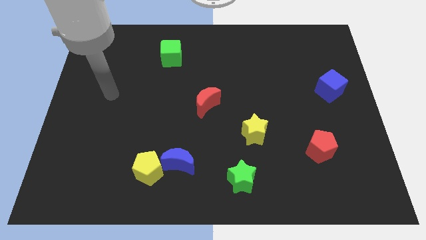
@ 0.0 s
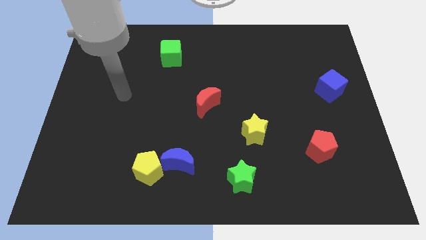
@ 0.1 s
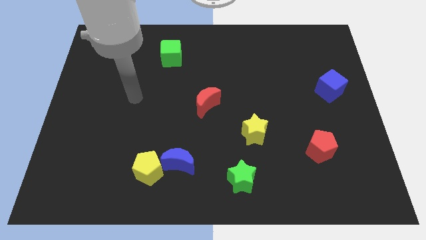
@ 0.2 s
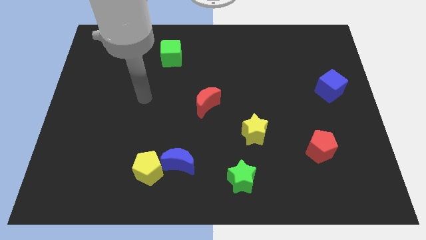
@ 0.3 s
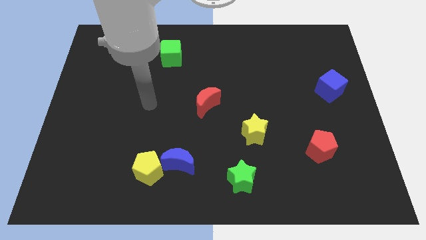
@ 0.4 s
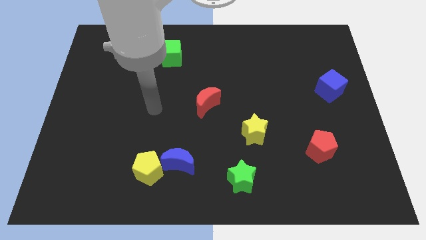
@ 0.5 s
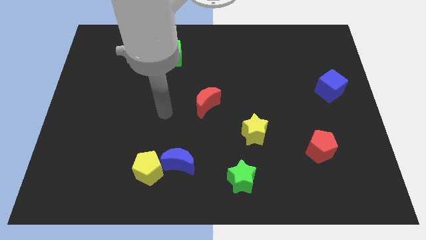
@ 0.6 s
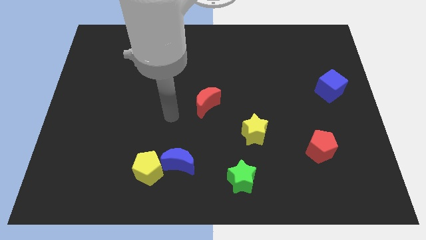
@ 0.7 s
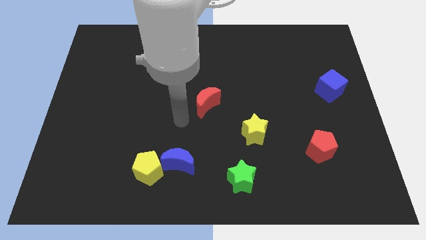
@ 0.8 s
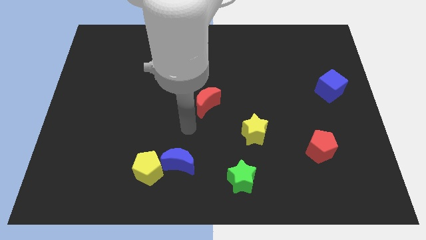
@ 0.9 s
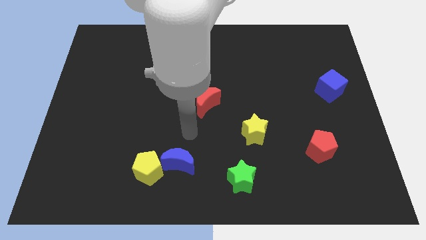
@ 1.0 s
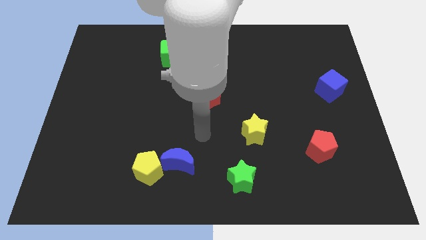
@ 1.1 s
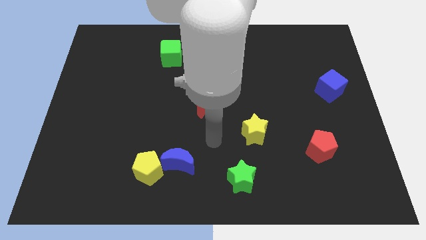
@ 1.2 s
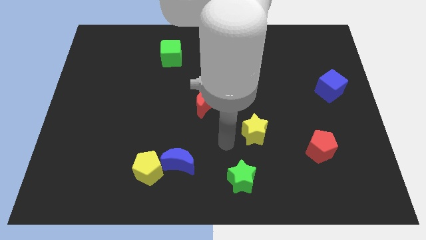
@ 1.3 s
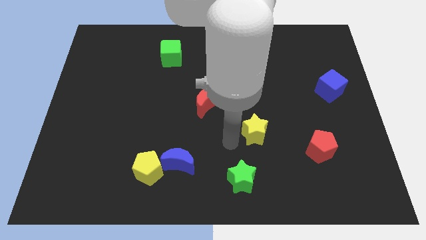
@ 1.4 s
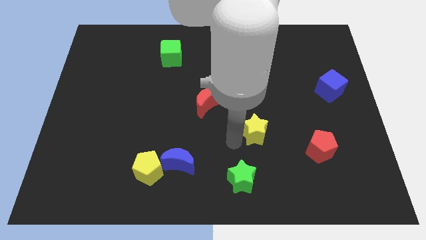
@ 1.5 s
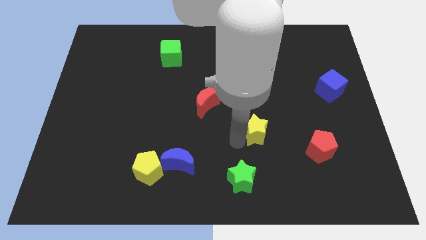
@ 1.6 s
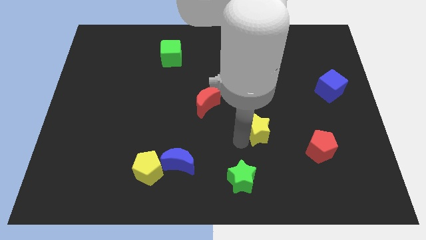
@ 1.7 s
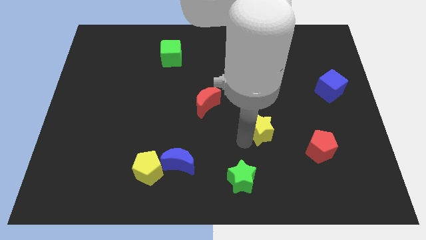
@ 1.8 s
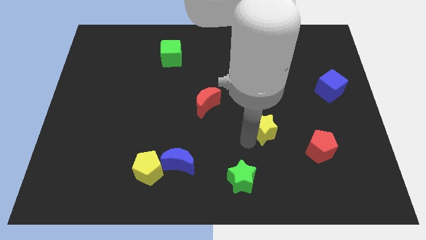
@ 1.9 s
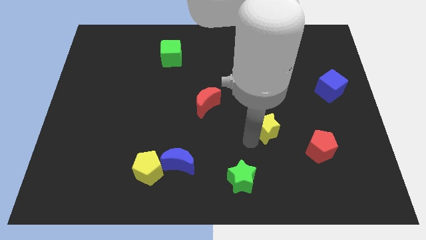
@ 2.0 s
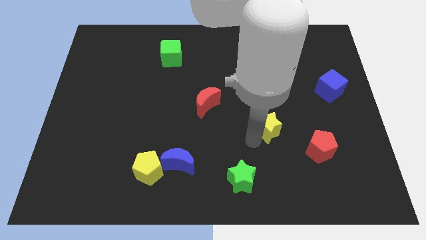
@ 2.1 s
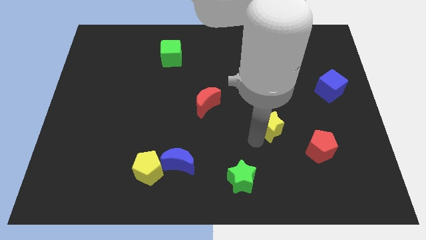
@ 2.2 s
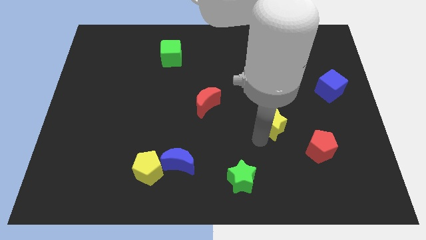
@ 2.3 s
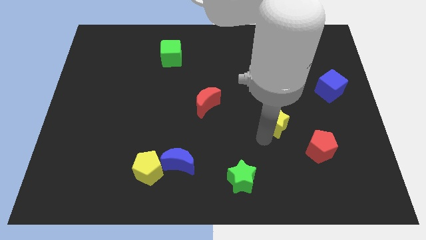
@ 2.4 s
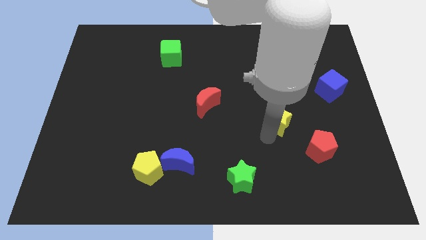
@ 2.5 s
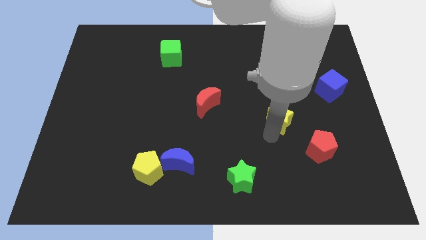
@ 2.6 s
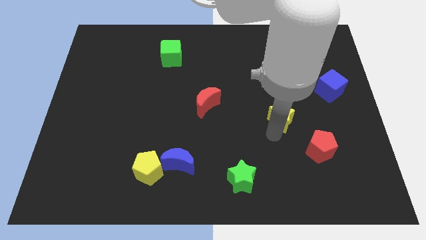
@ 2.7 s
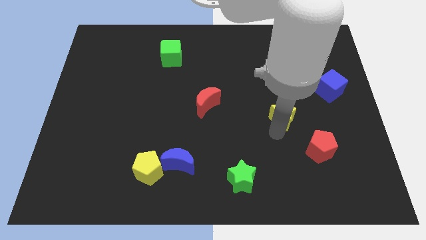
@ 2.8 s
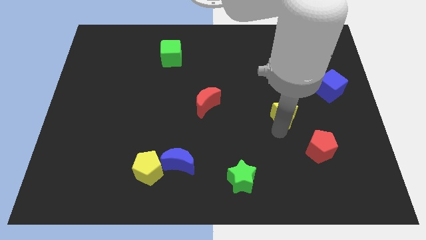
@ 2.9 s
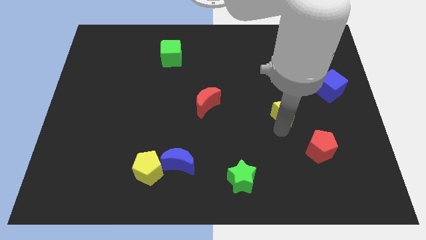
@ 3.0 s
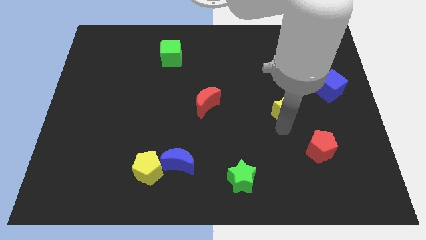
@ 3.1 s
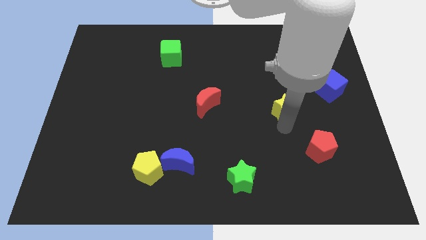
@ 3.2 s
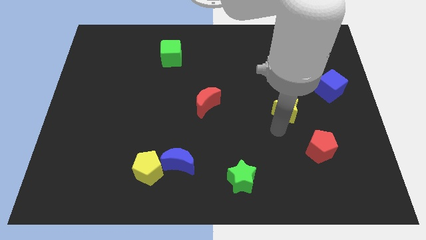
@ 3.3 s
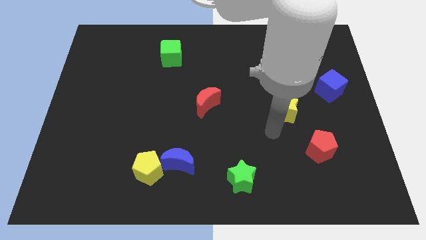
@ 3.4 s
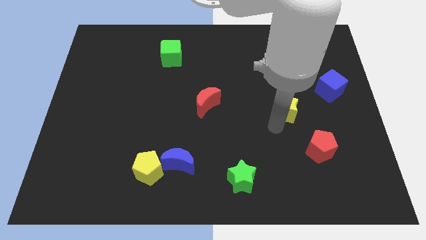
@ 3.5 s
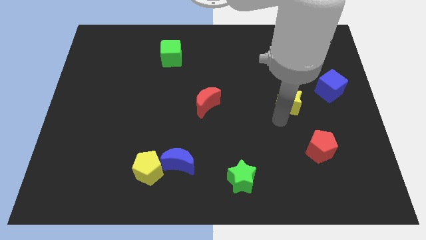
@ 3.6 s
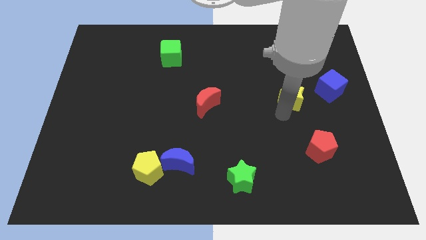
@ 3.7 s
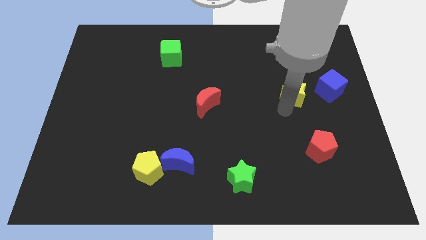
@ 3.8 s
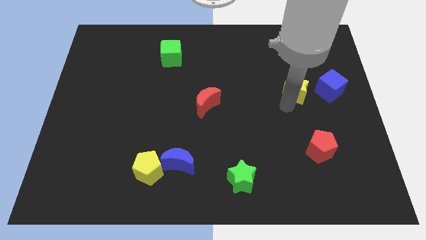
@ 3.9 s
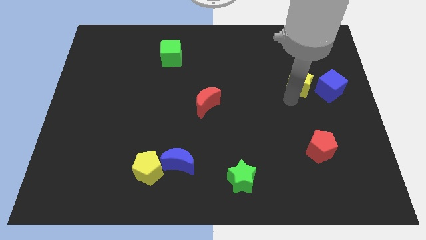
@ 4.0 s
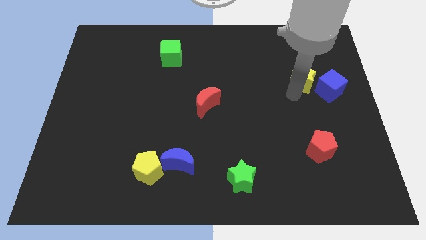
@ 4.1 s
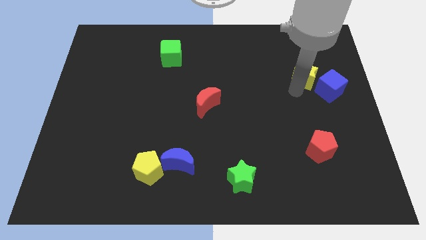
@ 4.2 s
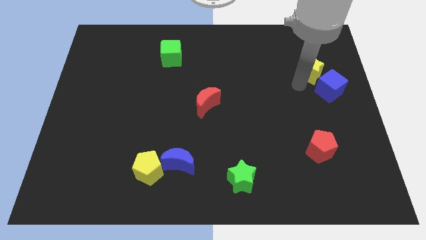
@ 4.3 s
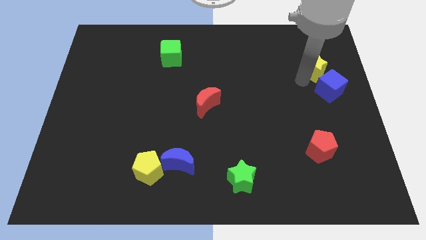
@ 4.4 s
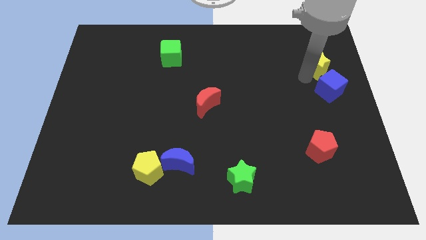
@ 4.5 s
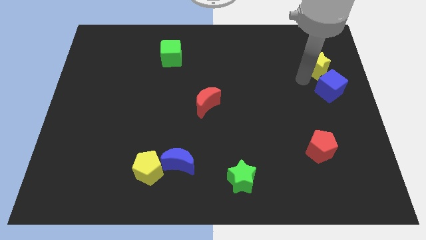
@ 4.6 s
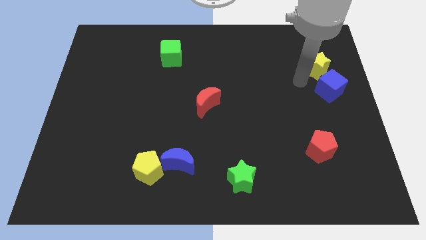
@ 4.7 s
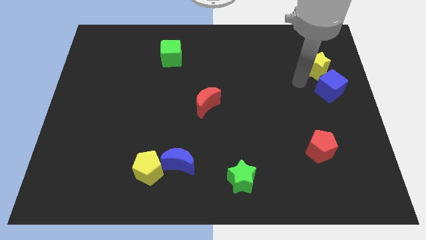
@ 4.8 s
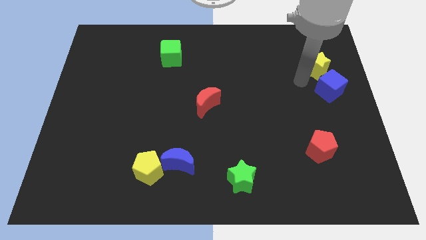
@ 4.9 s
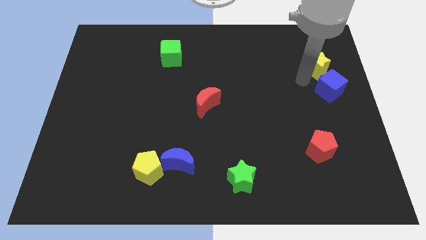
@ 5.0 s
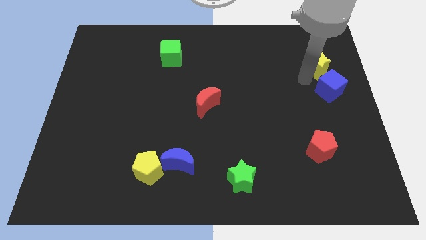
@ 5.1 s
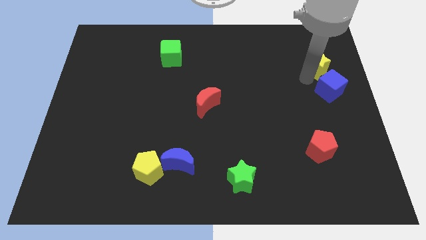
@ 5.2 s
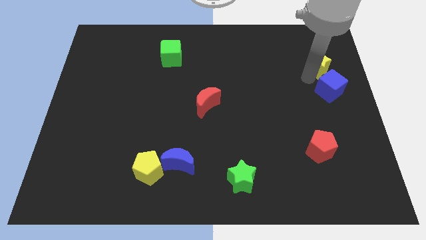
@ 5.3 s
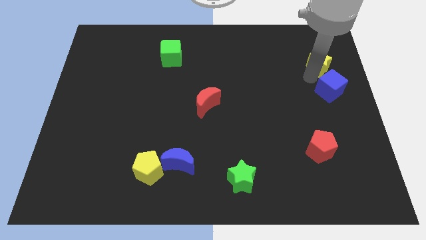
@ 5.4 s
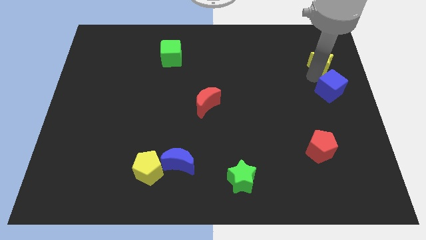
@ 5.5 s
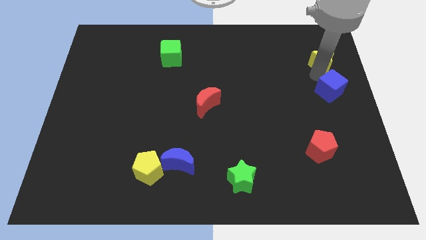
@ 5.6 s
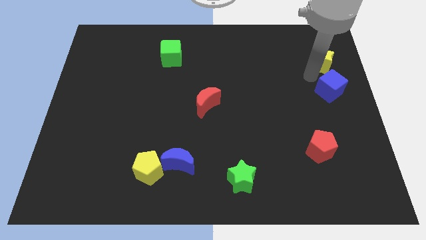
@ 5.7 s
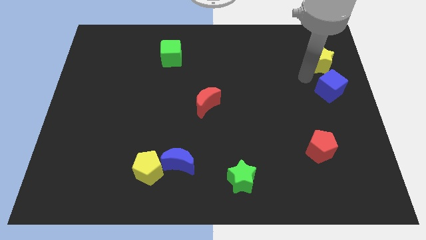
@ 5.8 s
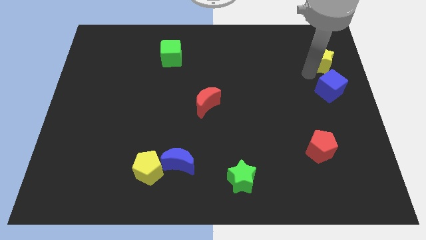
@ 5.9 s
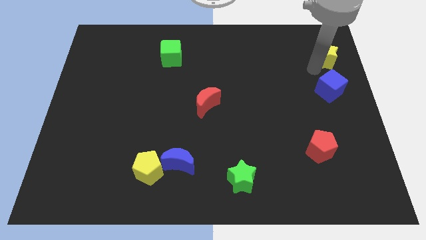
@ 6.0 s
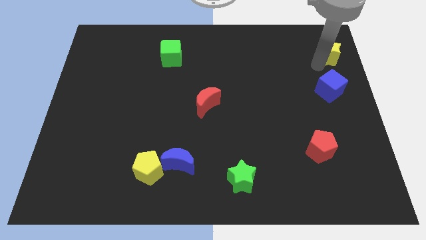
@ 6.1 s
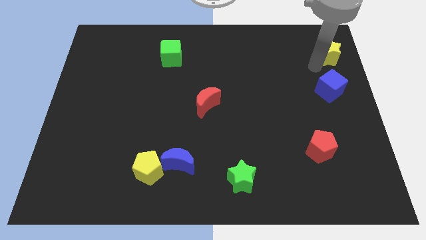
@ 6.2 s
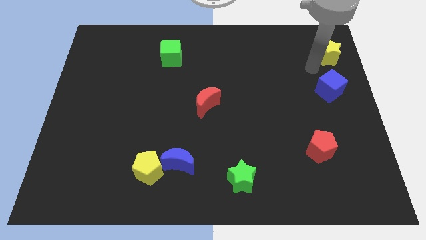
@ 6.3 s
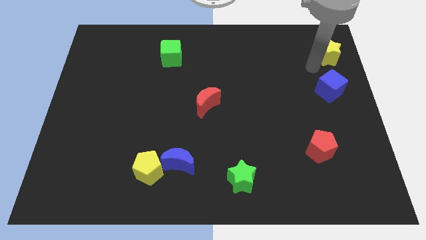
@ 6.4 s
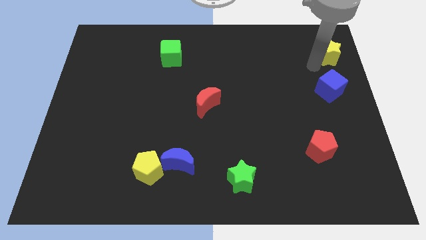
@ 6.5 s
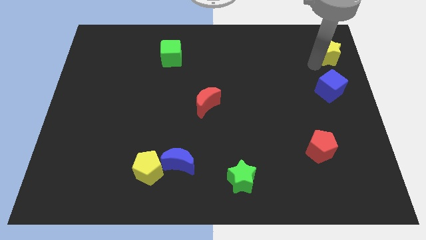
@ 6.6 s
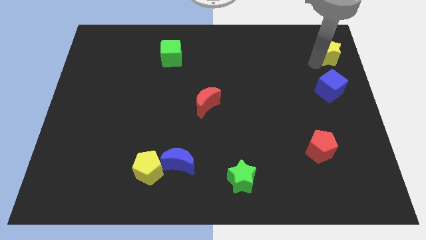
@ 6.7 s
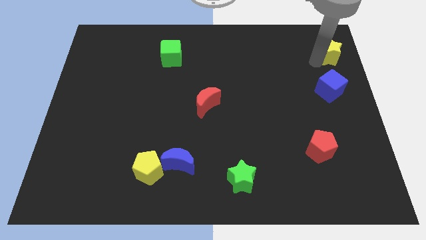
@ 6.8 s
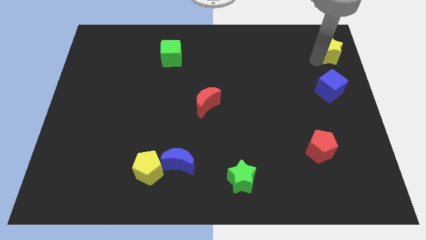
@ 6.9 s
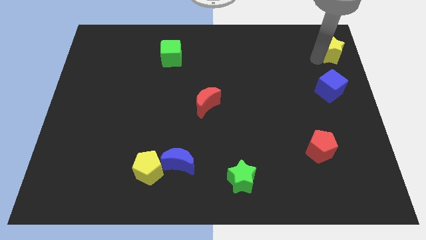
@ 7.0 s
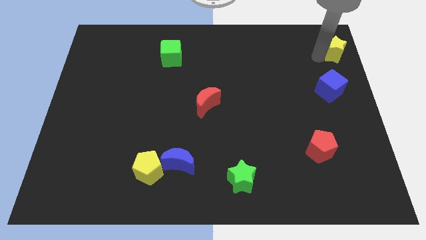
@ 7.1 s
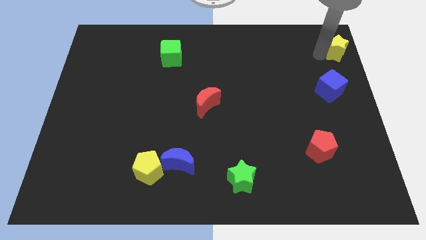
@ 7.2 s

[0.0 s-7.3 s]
put the yellow star to the upper right corner

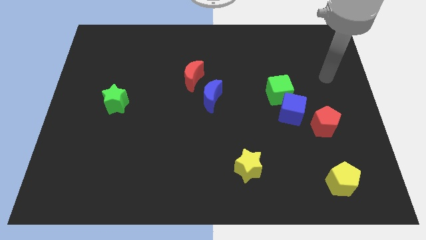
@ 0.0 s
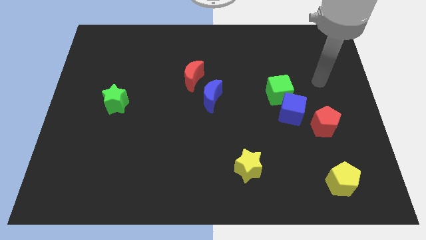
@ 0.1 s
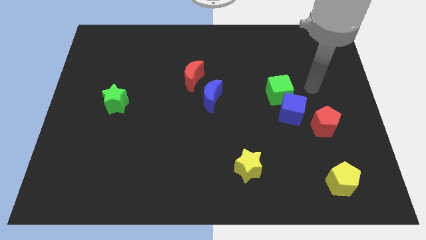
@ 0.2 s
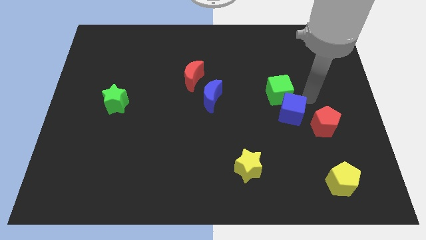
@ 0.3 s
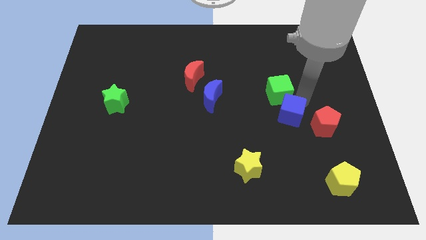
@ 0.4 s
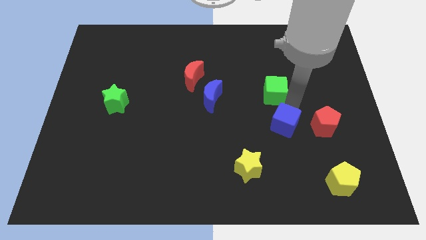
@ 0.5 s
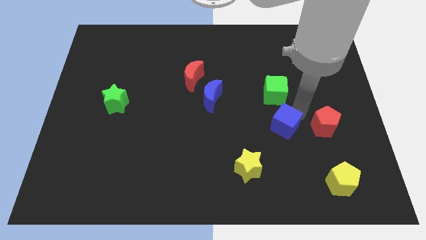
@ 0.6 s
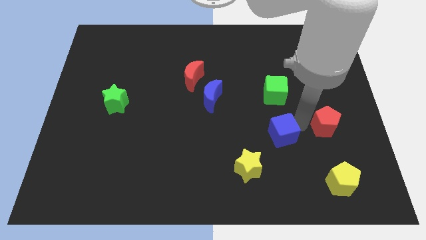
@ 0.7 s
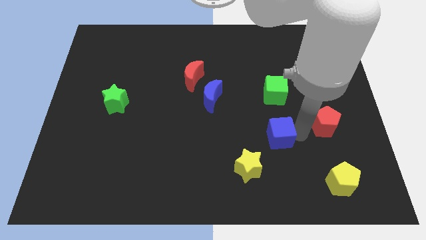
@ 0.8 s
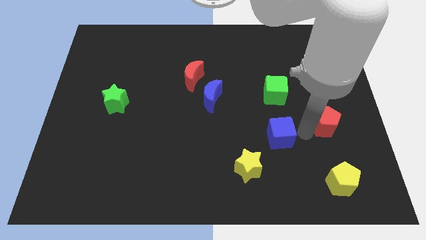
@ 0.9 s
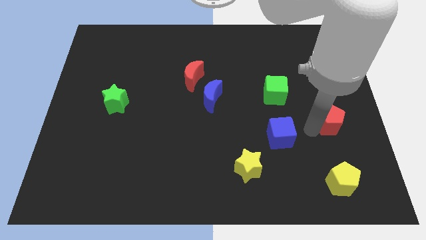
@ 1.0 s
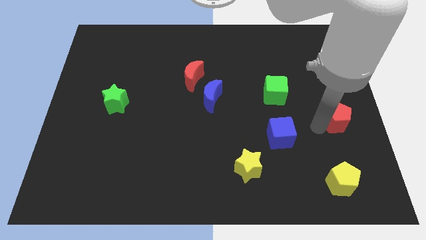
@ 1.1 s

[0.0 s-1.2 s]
move the red pentagon to the right side of the board
